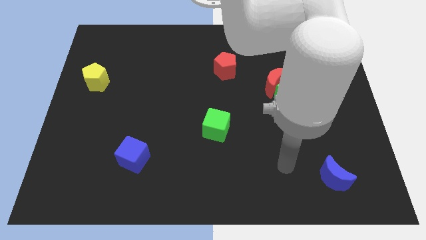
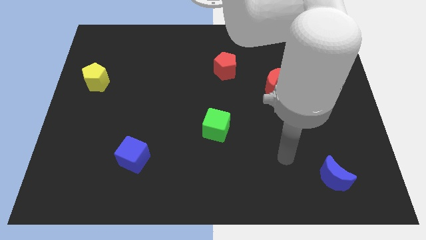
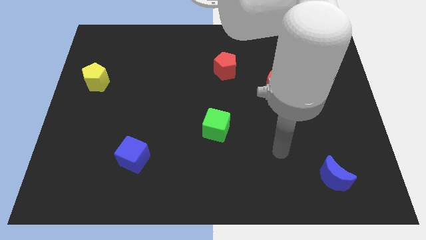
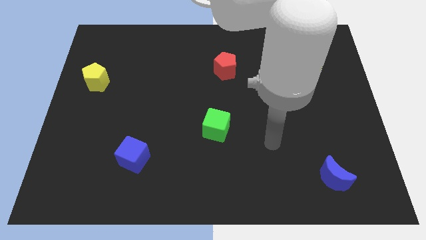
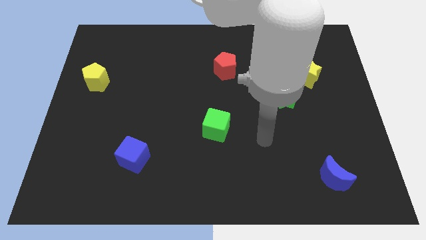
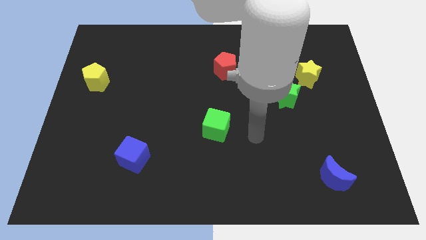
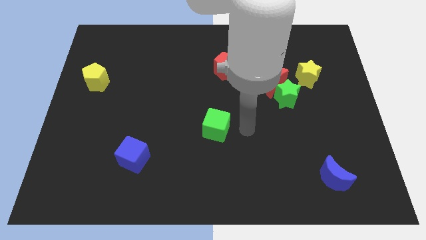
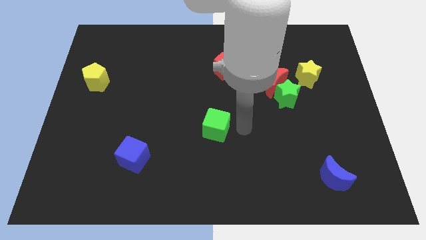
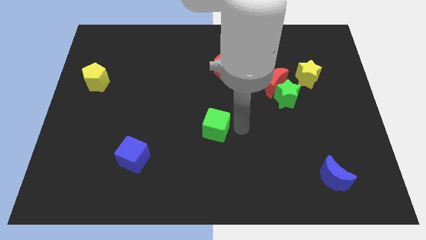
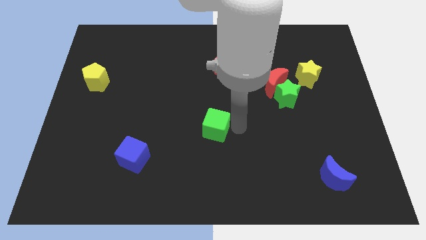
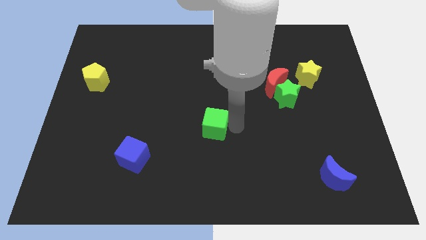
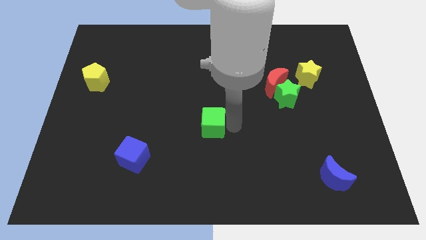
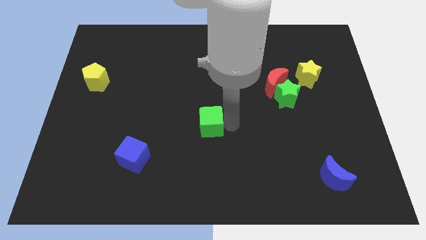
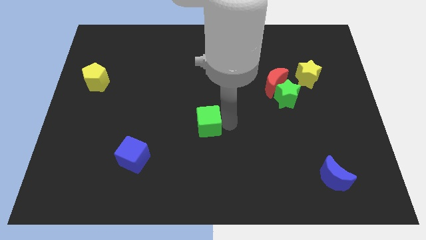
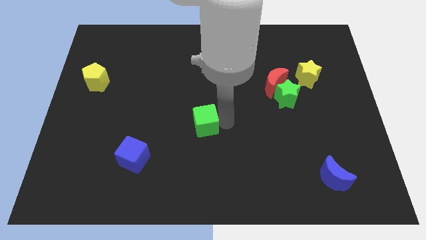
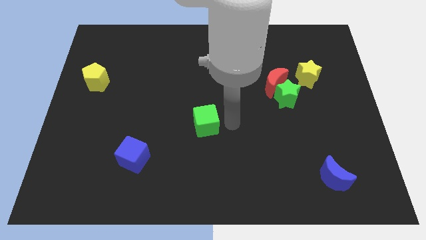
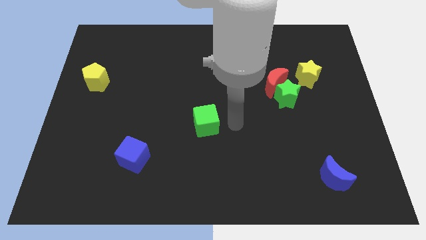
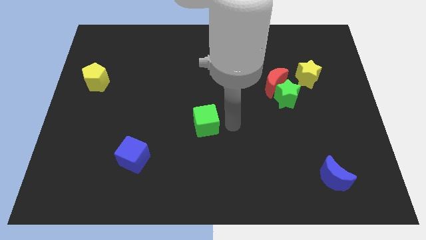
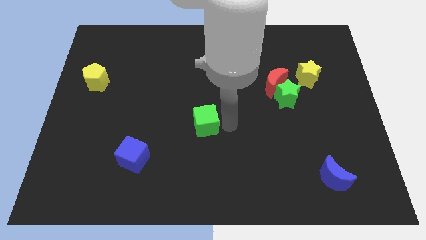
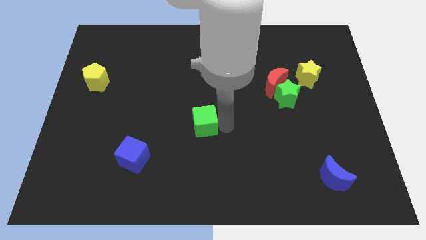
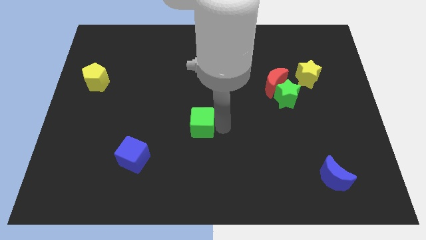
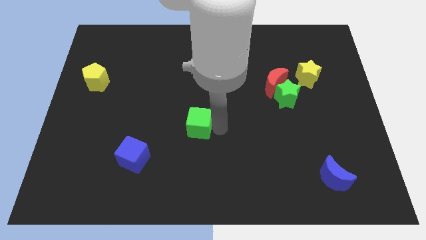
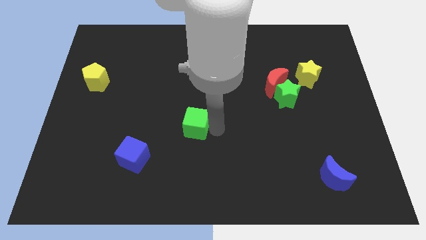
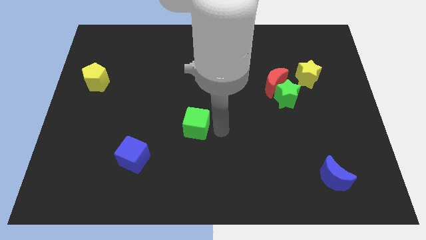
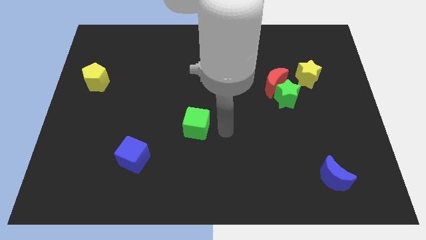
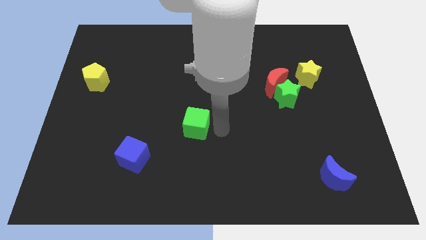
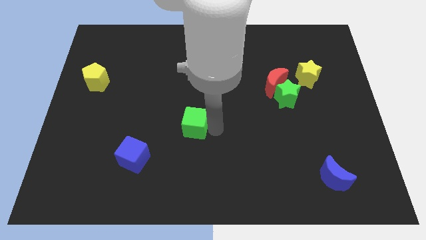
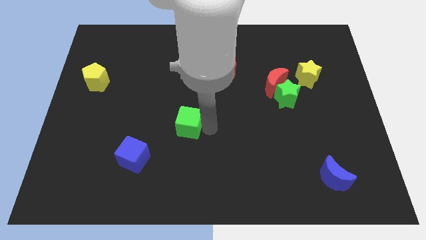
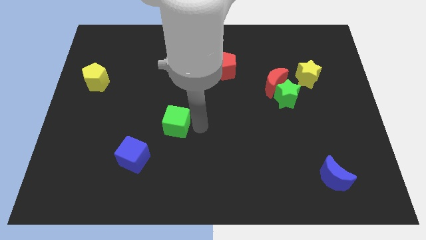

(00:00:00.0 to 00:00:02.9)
push the green cube to the left slightly

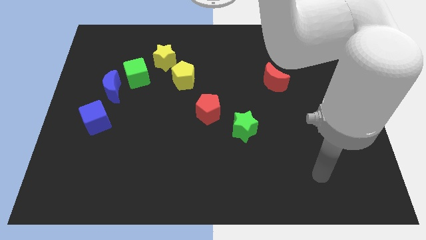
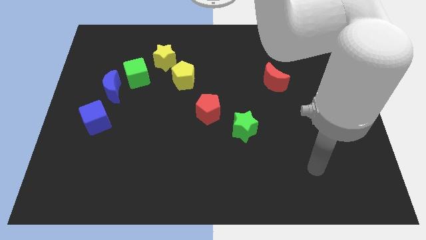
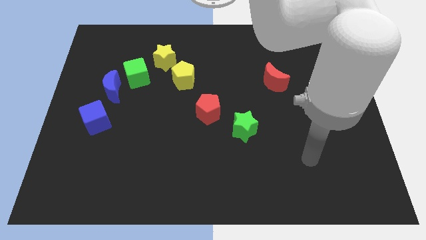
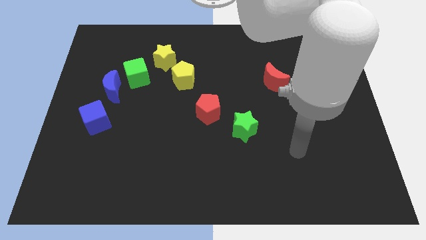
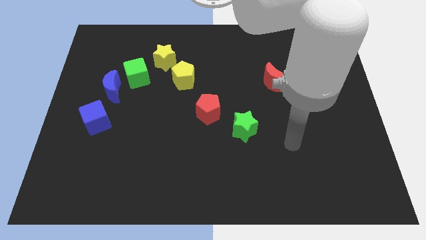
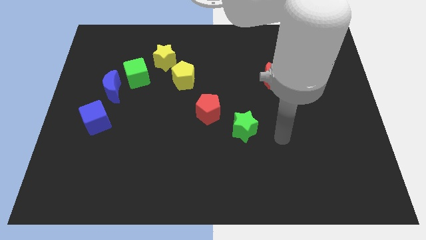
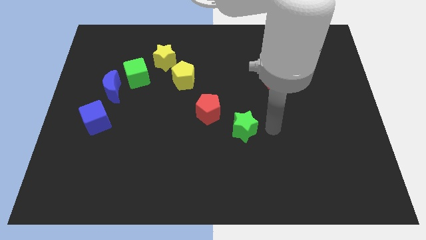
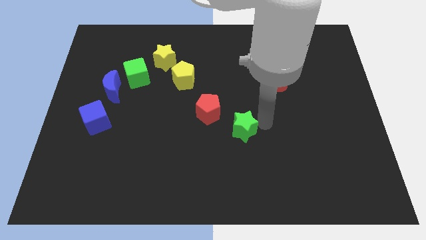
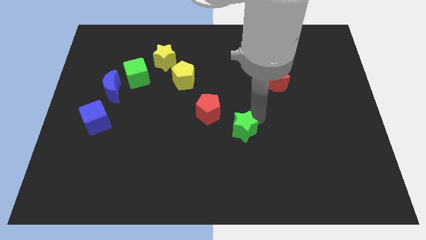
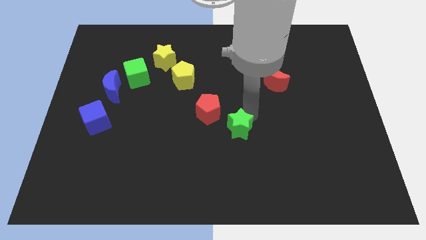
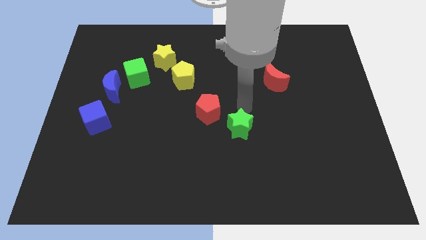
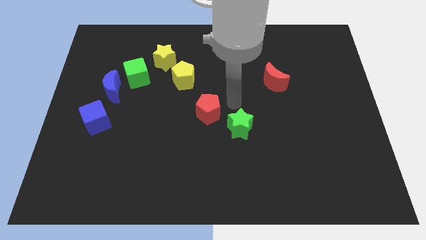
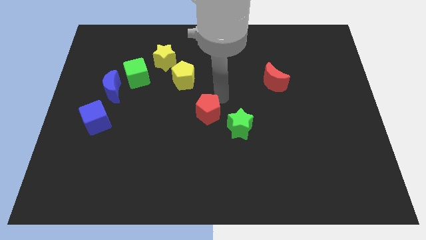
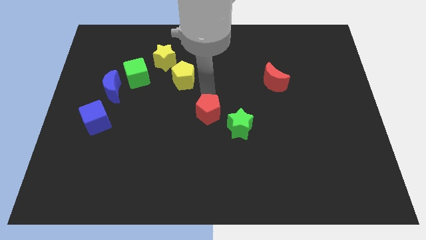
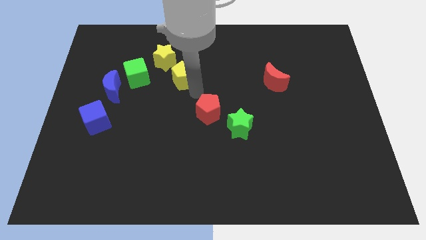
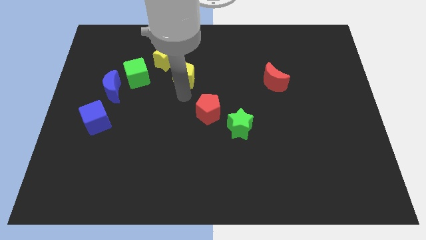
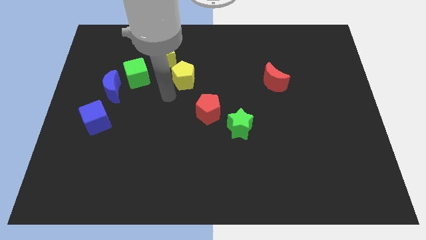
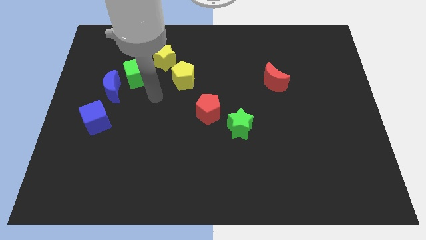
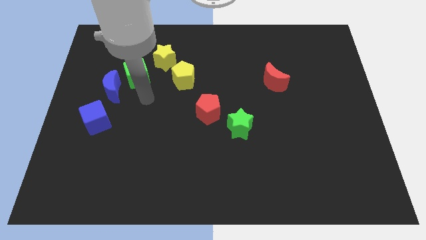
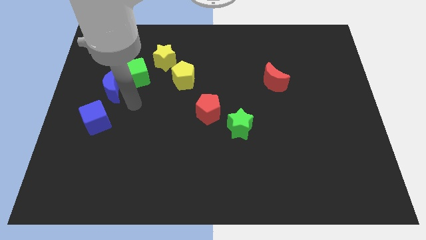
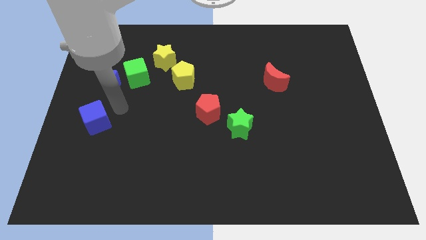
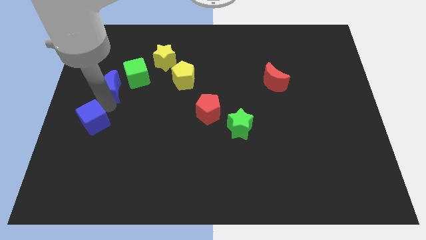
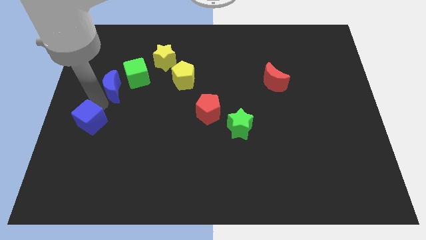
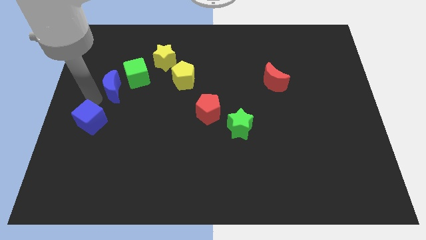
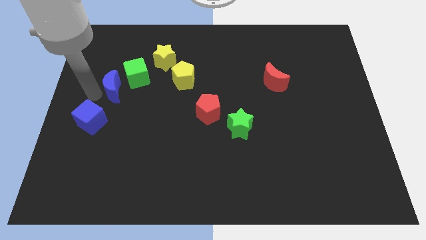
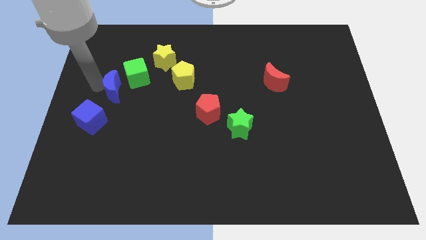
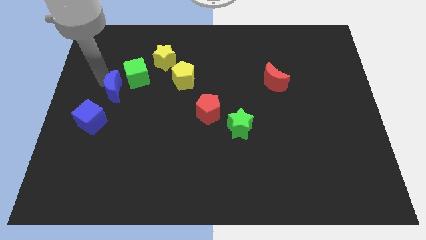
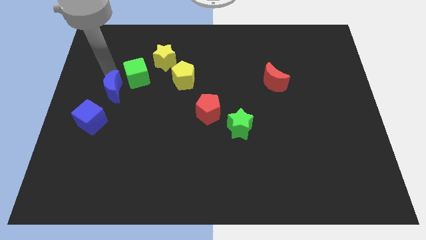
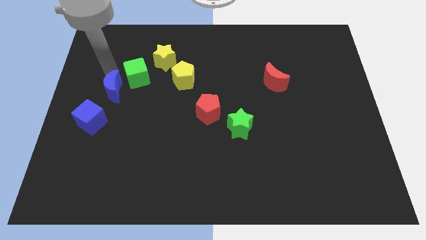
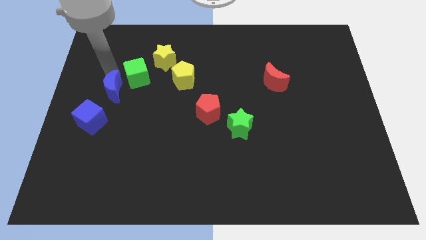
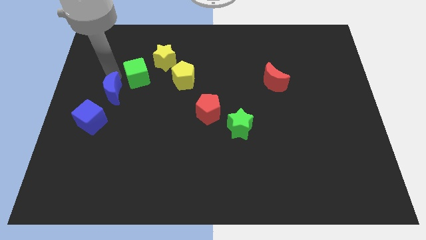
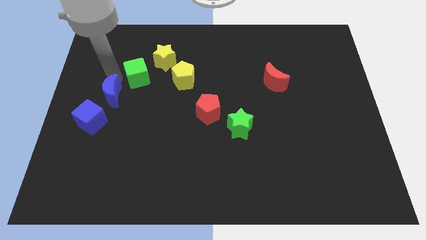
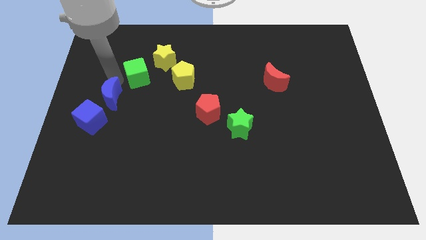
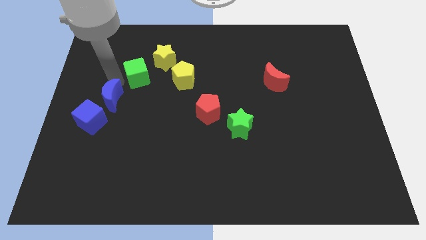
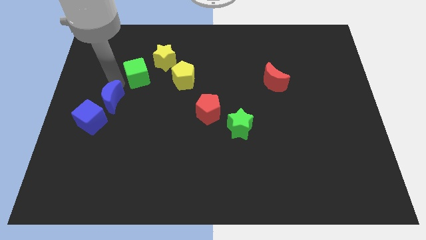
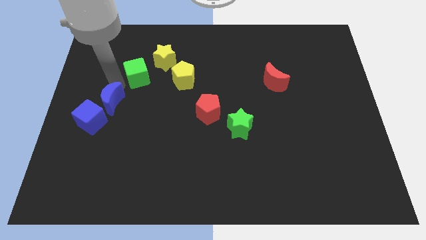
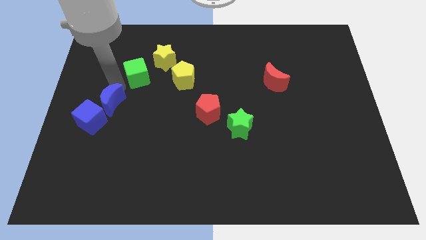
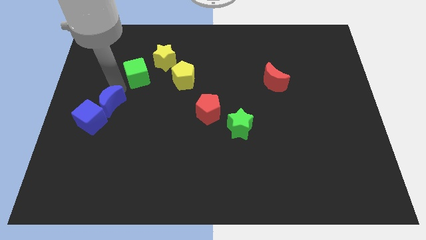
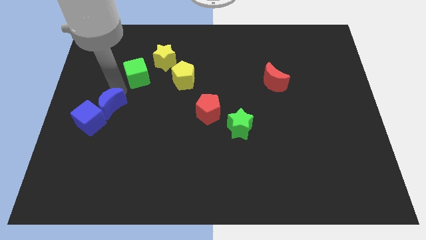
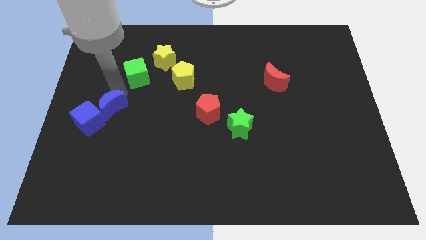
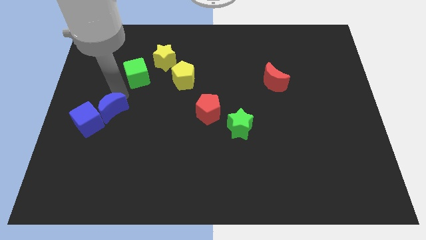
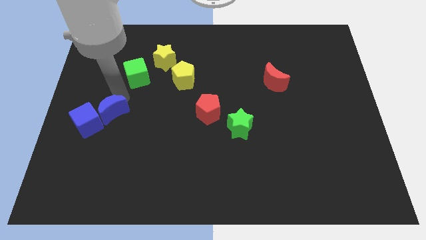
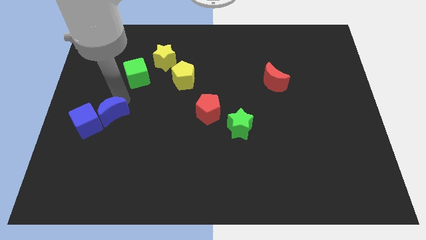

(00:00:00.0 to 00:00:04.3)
slide the blue moon downwards a little bit

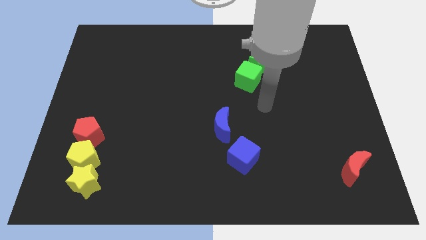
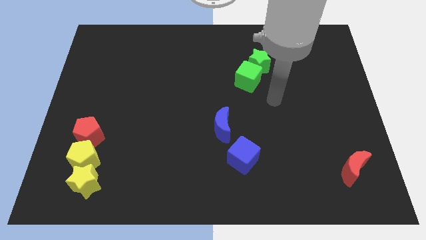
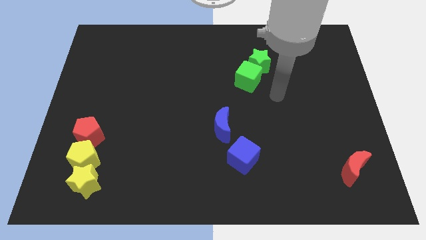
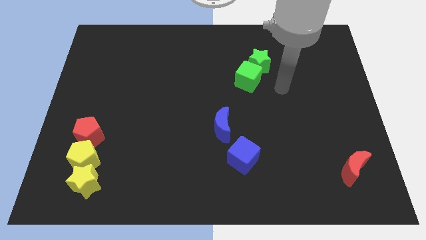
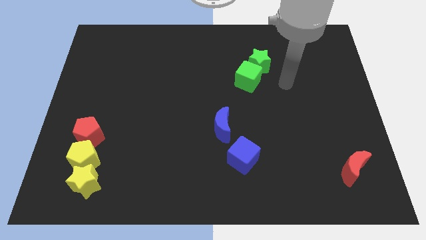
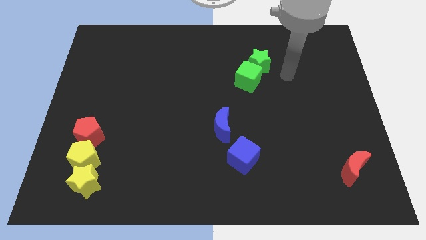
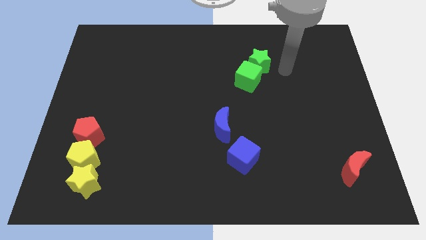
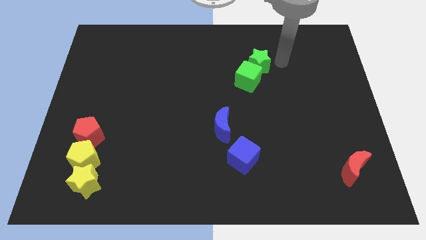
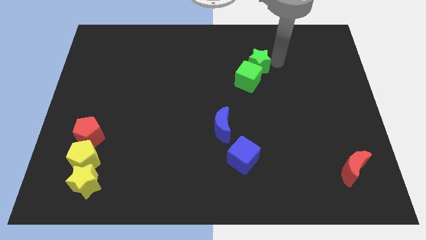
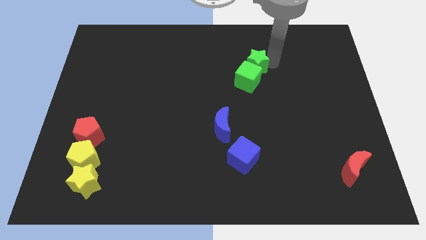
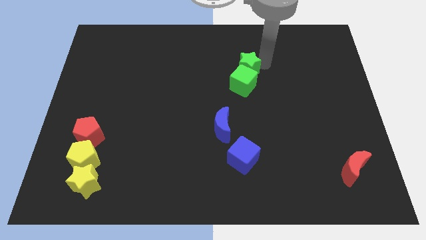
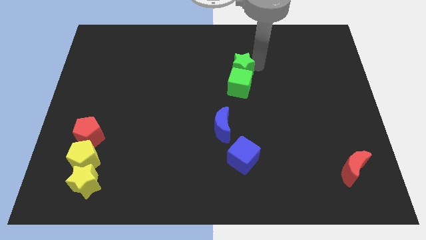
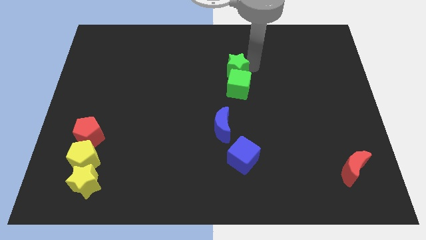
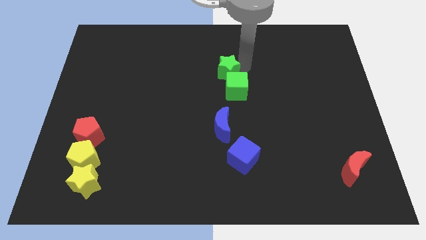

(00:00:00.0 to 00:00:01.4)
slightly push the green star downwards and to the left
